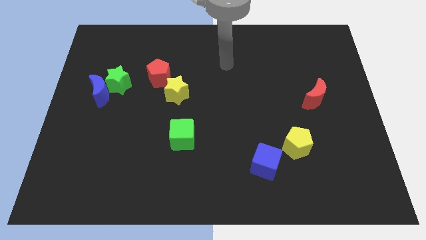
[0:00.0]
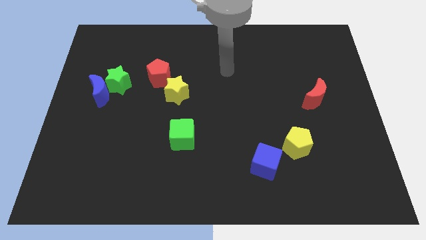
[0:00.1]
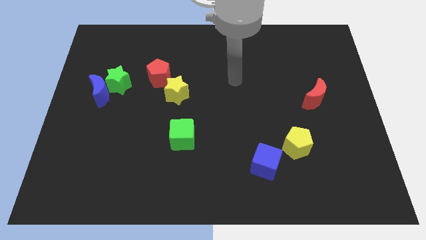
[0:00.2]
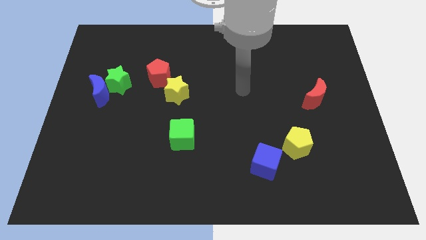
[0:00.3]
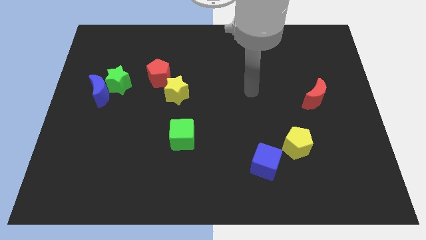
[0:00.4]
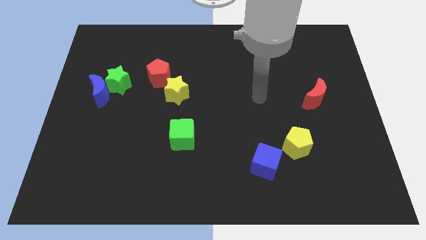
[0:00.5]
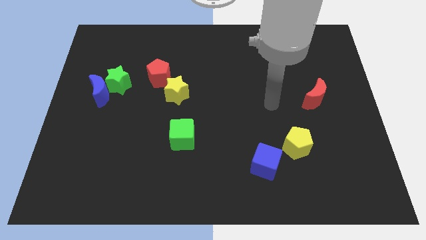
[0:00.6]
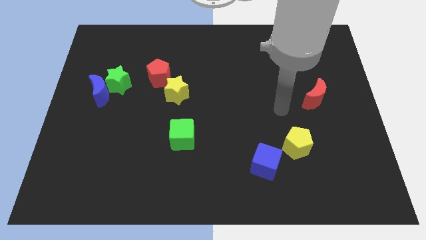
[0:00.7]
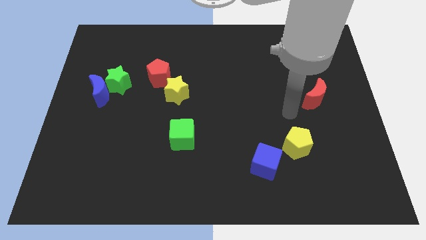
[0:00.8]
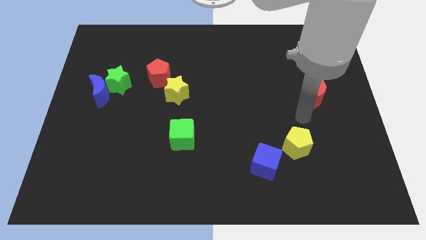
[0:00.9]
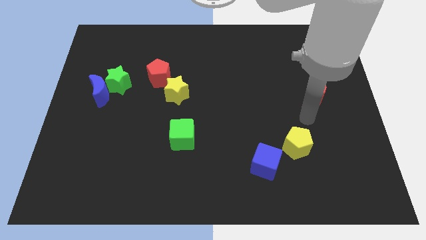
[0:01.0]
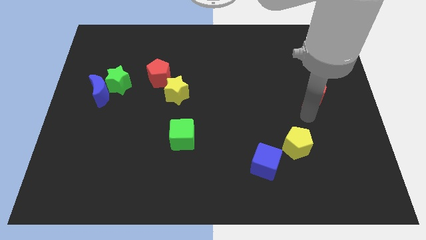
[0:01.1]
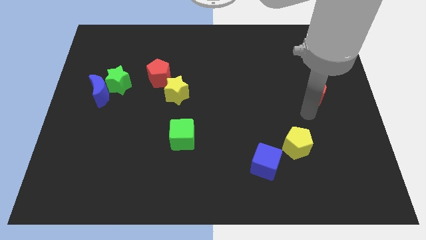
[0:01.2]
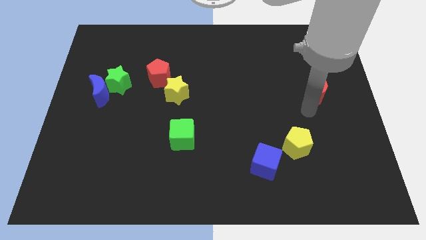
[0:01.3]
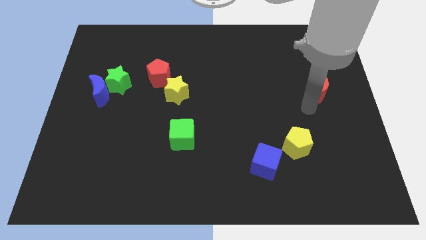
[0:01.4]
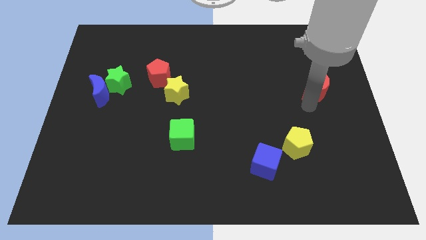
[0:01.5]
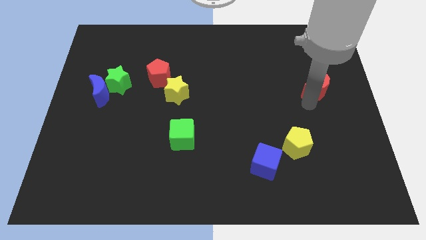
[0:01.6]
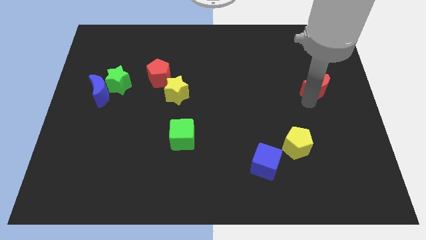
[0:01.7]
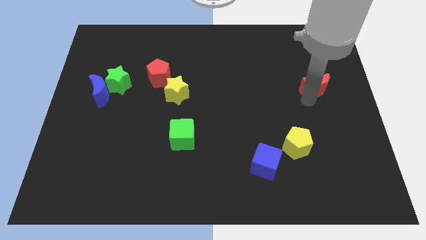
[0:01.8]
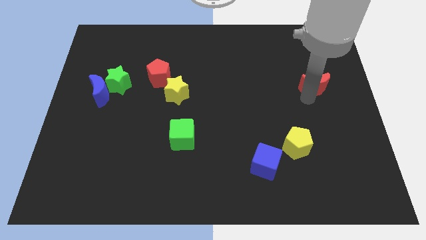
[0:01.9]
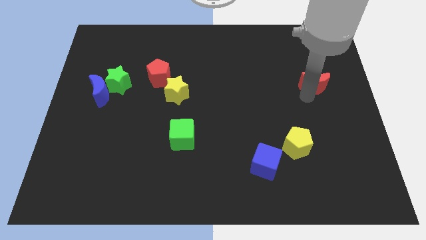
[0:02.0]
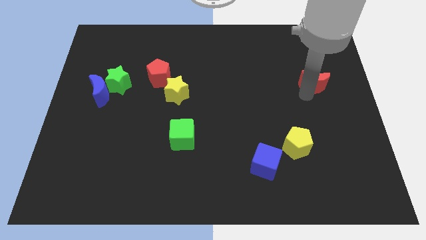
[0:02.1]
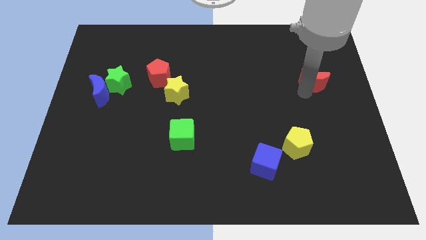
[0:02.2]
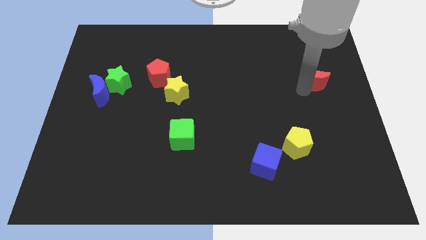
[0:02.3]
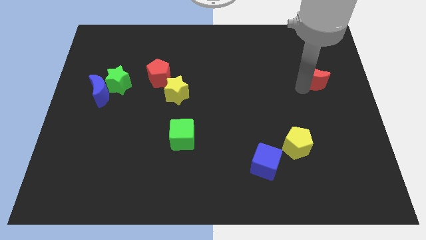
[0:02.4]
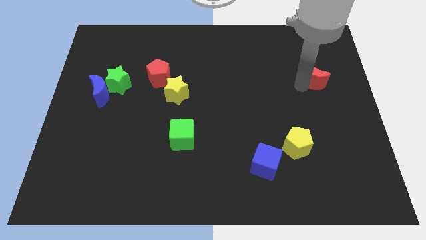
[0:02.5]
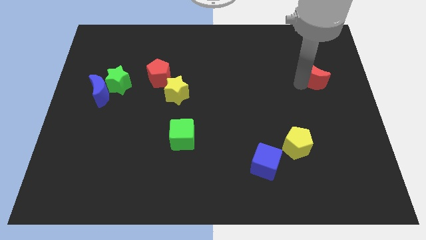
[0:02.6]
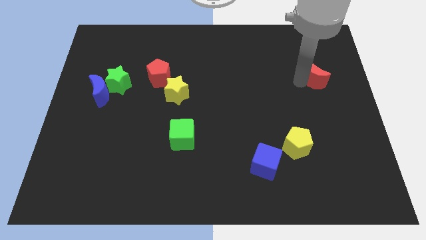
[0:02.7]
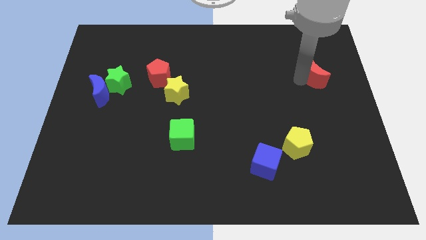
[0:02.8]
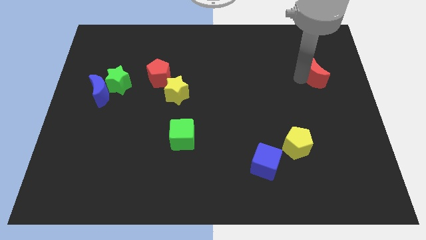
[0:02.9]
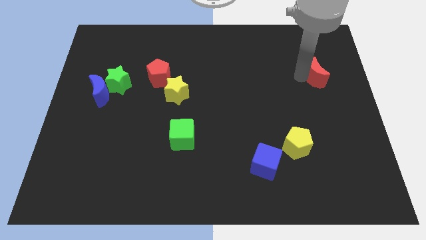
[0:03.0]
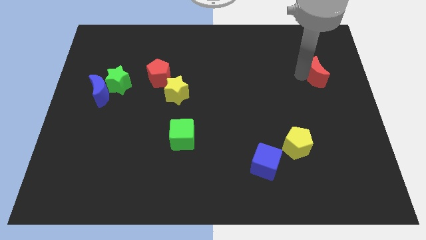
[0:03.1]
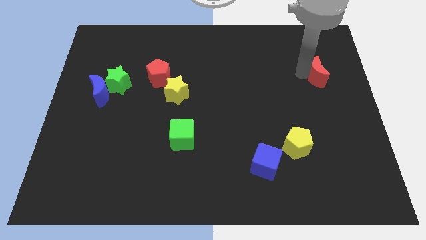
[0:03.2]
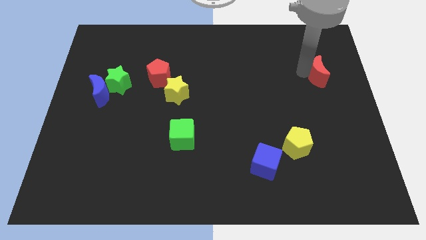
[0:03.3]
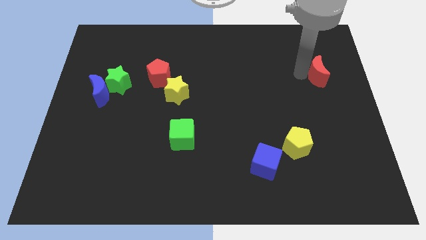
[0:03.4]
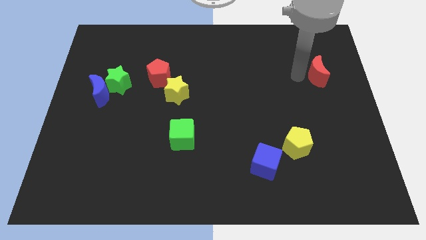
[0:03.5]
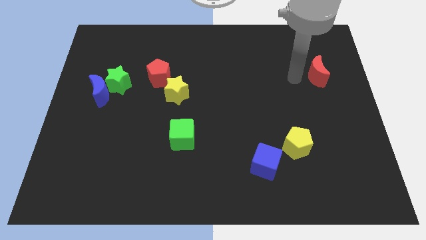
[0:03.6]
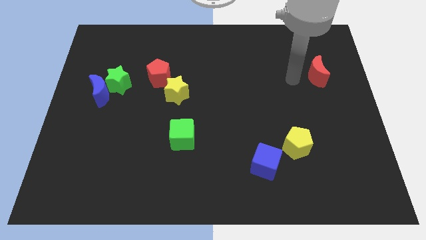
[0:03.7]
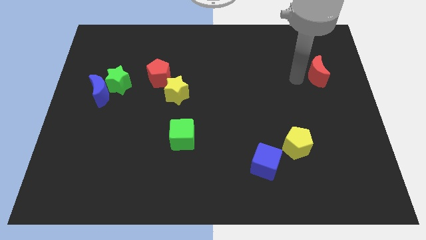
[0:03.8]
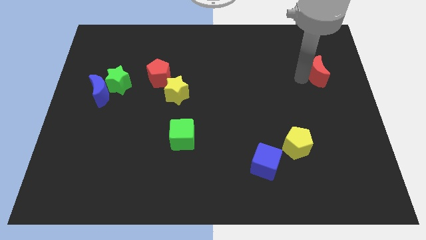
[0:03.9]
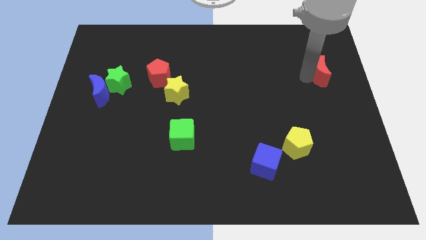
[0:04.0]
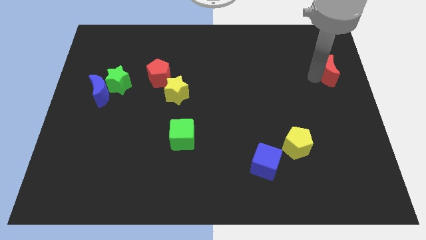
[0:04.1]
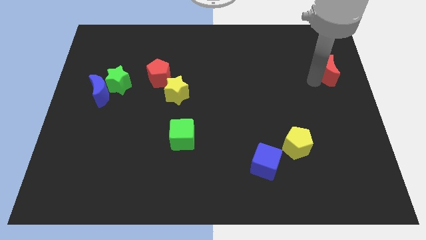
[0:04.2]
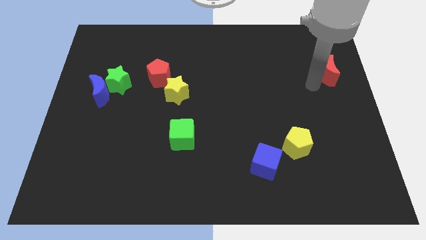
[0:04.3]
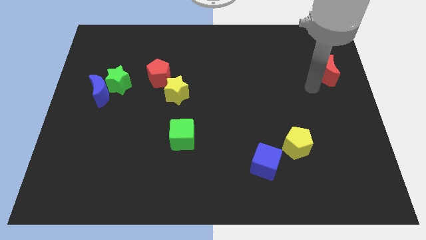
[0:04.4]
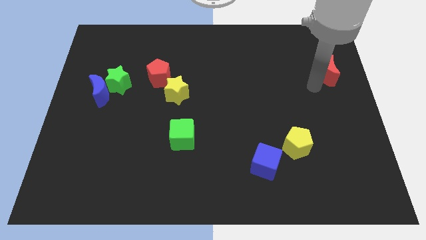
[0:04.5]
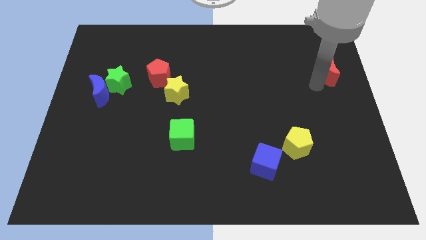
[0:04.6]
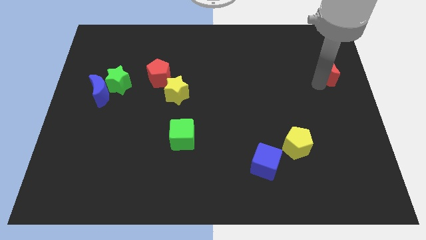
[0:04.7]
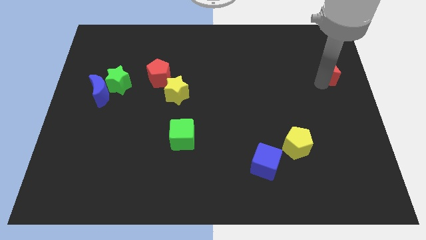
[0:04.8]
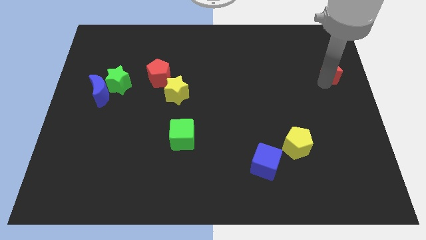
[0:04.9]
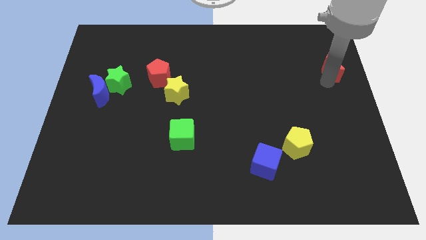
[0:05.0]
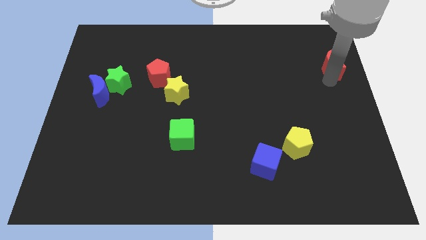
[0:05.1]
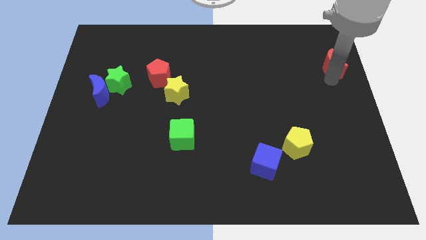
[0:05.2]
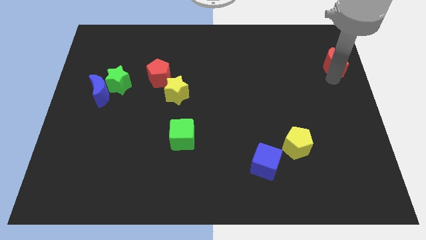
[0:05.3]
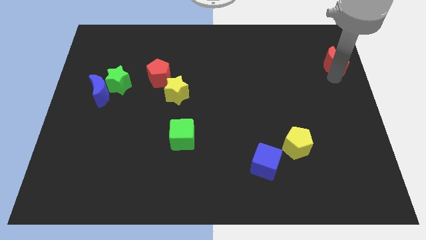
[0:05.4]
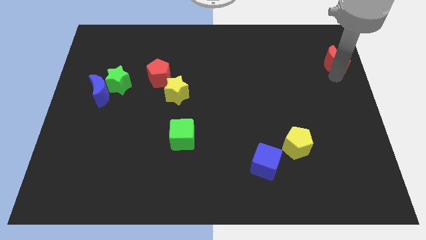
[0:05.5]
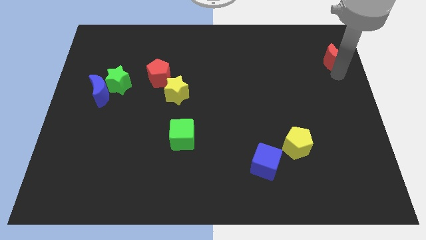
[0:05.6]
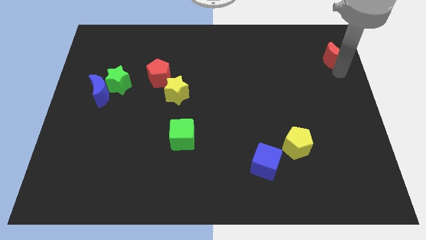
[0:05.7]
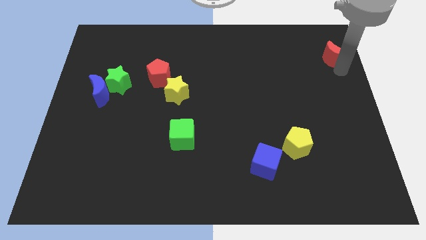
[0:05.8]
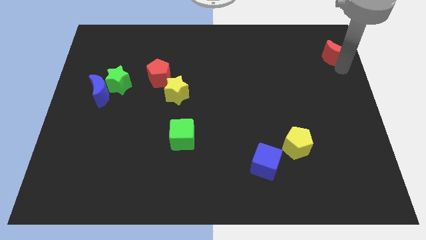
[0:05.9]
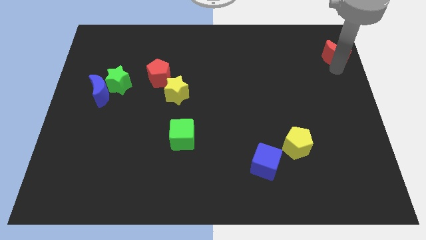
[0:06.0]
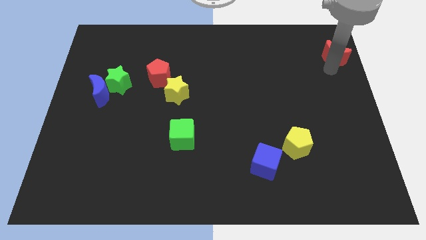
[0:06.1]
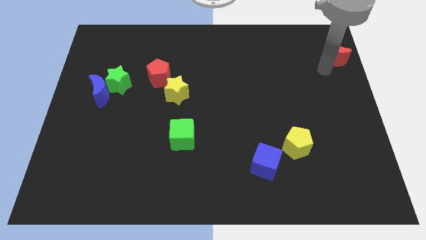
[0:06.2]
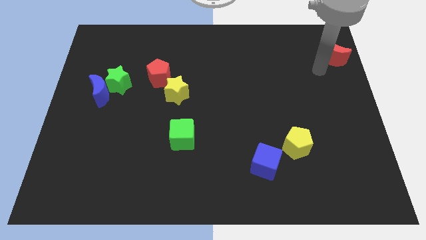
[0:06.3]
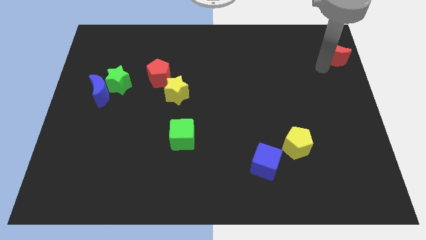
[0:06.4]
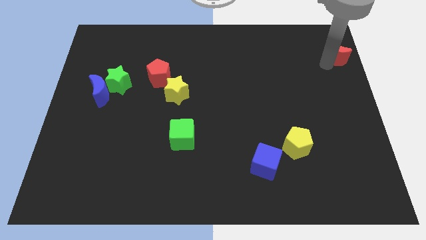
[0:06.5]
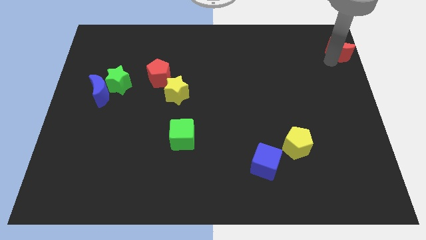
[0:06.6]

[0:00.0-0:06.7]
slide the red moon to the upper right corner
